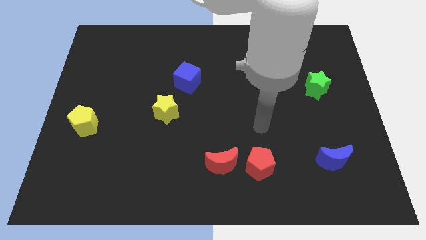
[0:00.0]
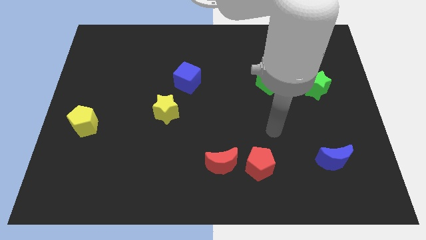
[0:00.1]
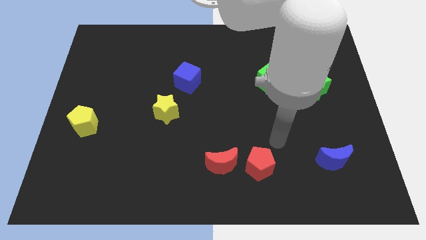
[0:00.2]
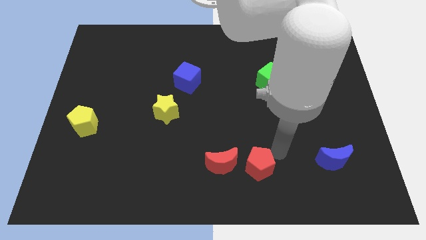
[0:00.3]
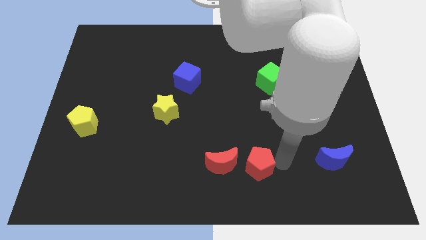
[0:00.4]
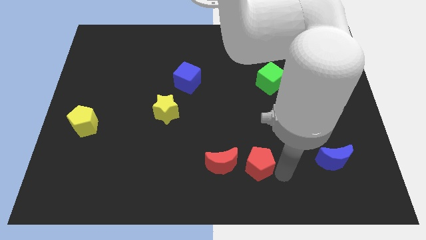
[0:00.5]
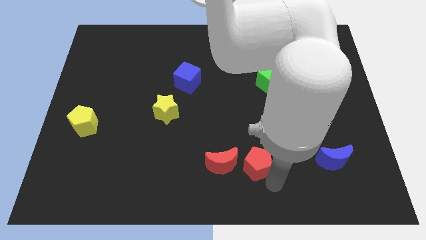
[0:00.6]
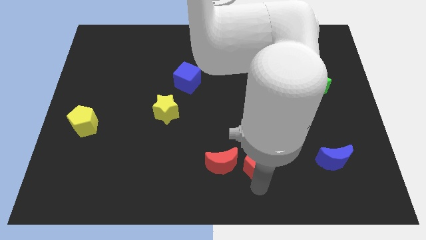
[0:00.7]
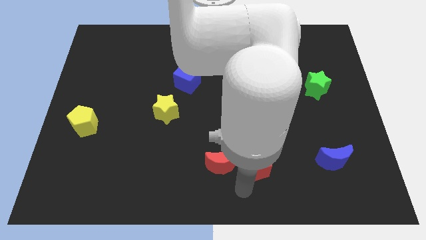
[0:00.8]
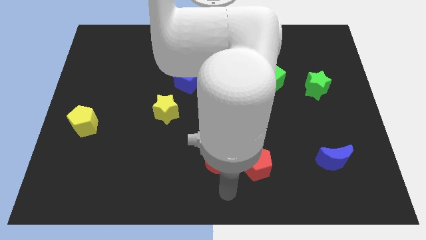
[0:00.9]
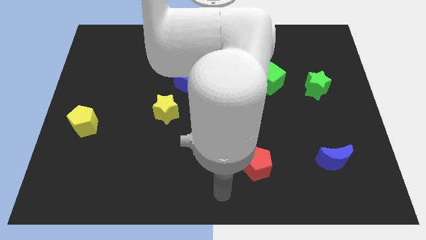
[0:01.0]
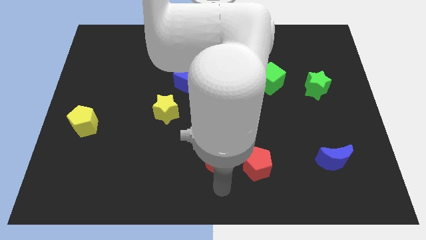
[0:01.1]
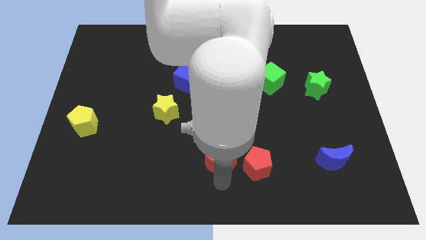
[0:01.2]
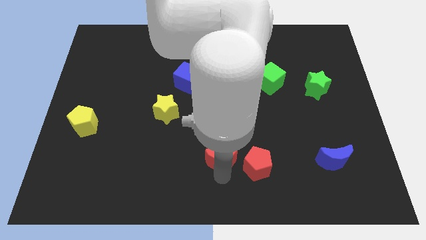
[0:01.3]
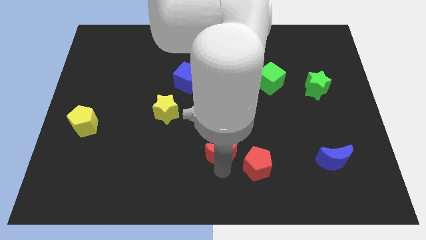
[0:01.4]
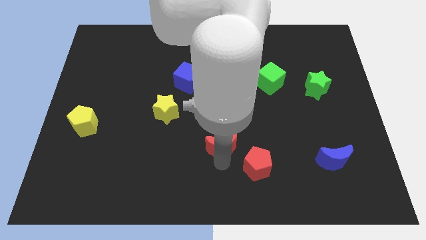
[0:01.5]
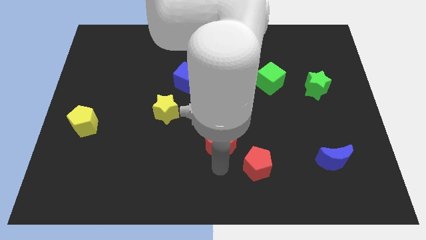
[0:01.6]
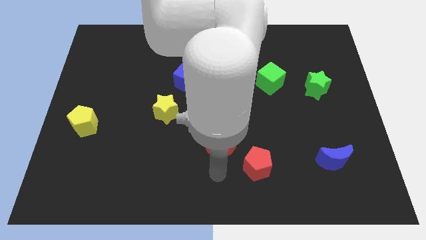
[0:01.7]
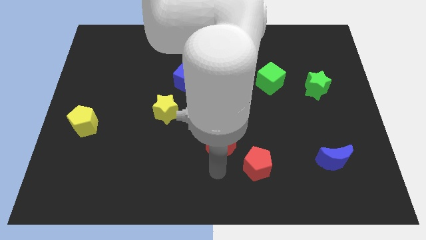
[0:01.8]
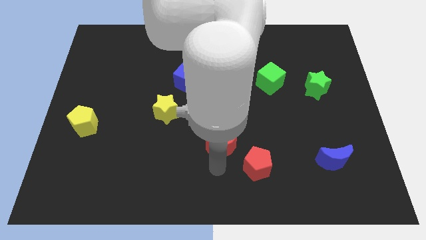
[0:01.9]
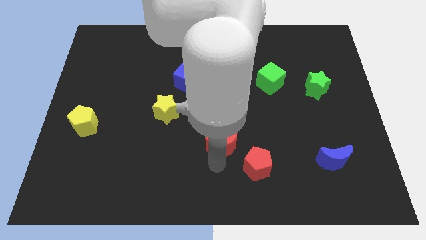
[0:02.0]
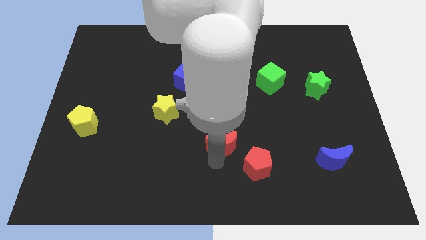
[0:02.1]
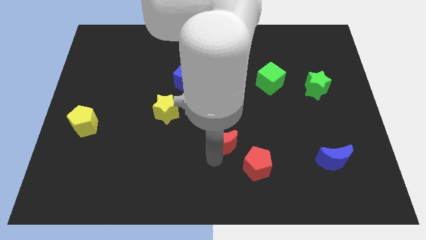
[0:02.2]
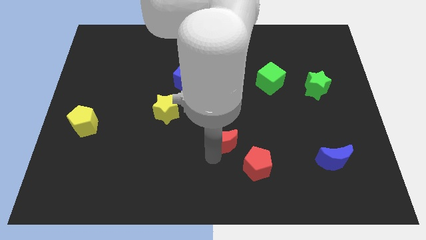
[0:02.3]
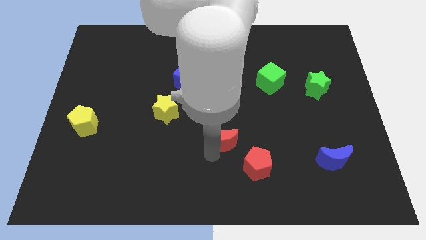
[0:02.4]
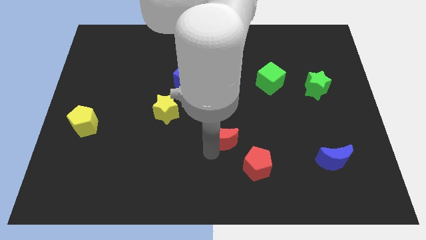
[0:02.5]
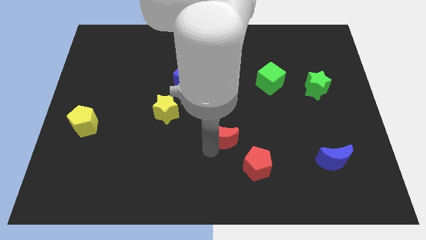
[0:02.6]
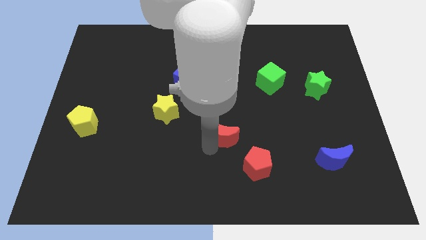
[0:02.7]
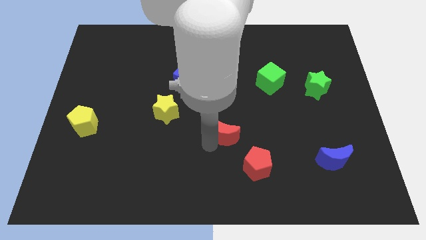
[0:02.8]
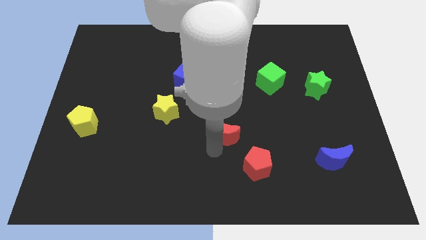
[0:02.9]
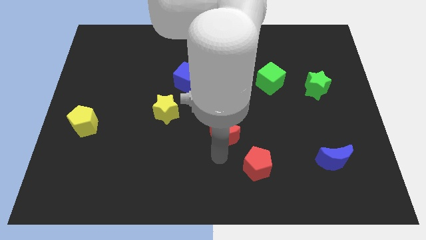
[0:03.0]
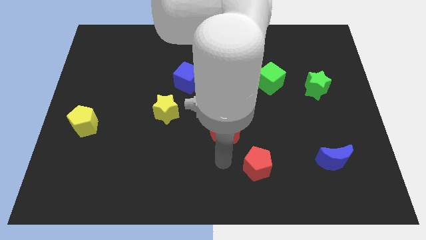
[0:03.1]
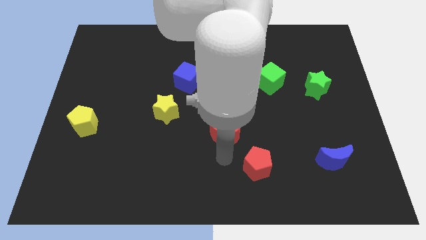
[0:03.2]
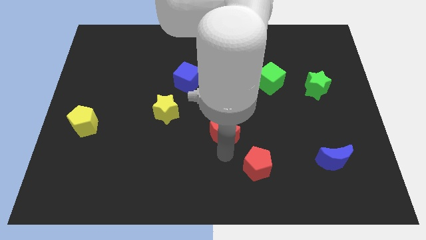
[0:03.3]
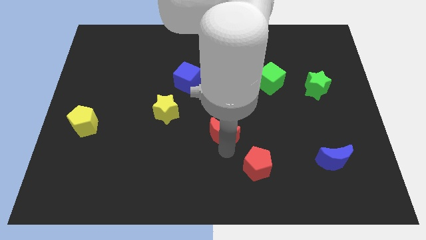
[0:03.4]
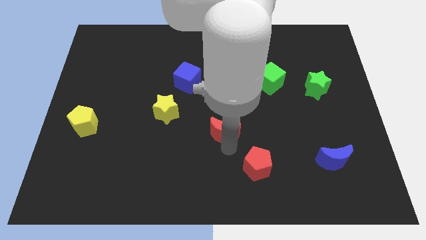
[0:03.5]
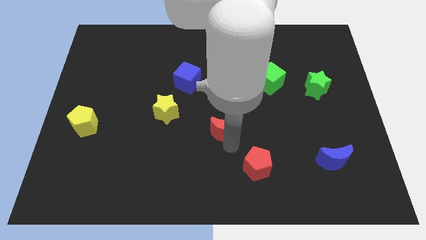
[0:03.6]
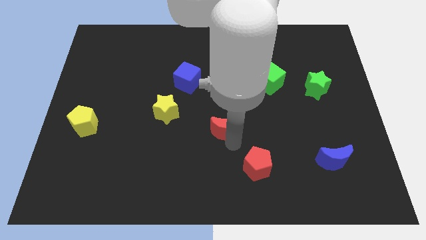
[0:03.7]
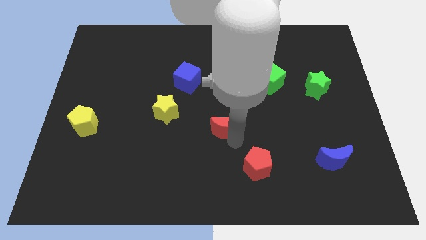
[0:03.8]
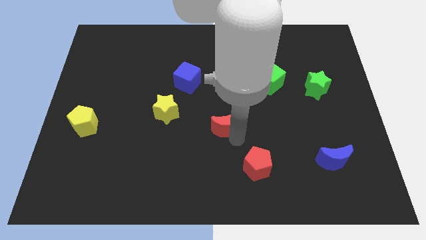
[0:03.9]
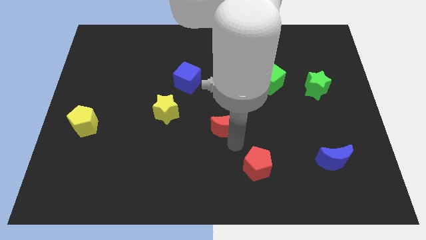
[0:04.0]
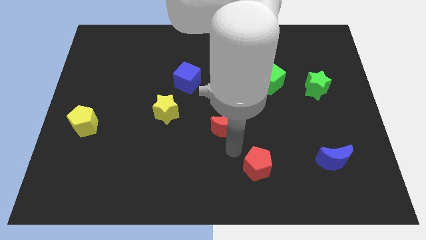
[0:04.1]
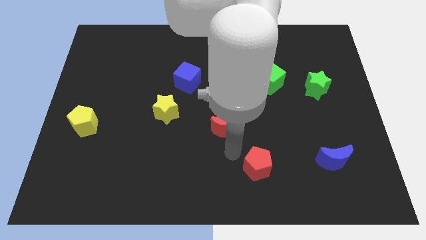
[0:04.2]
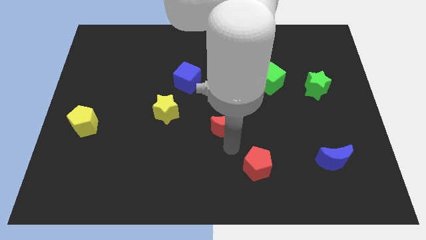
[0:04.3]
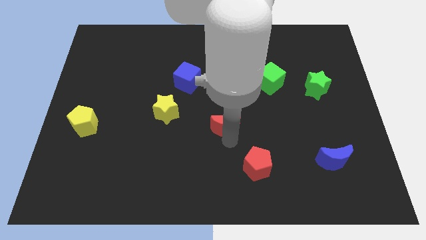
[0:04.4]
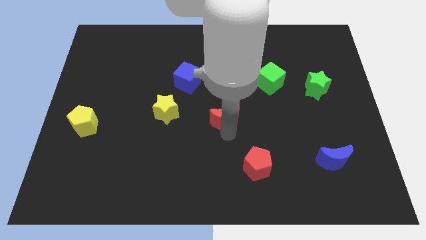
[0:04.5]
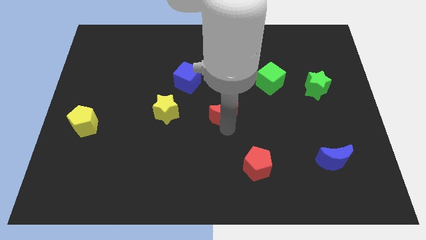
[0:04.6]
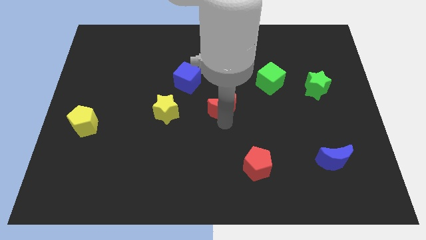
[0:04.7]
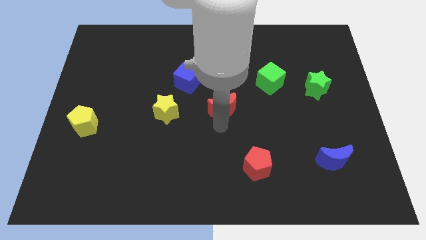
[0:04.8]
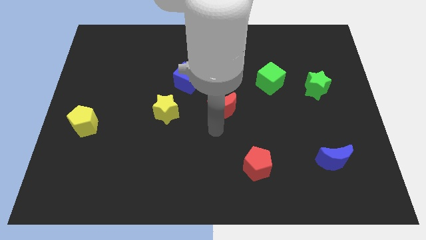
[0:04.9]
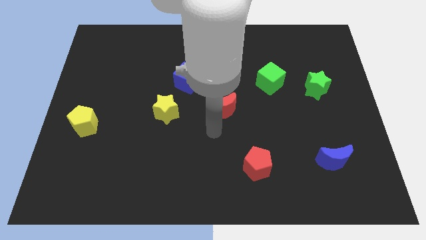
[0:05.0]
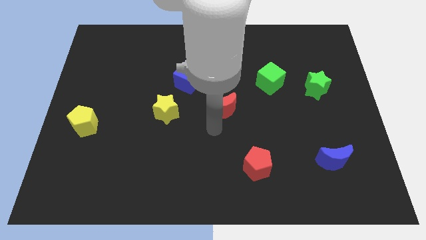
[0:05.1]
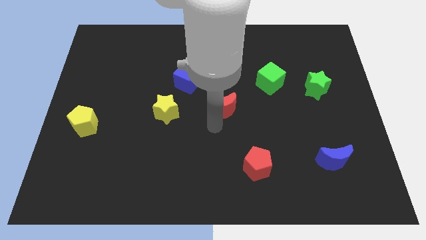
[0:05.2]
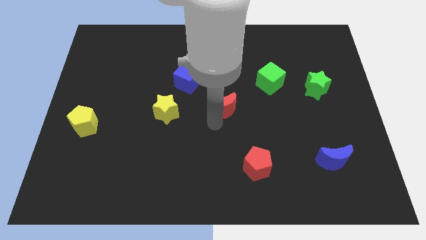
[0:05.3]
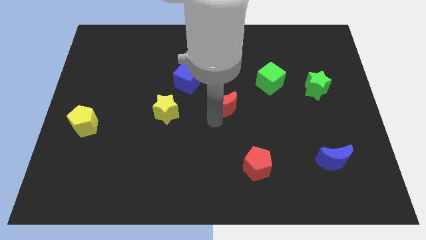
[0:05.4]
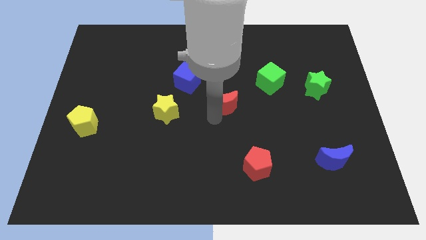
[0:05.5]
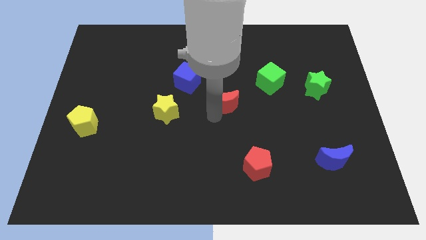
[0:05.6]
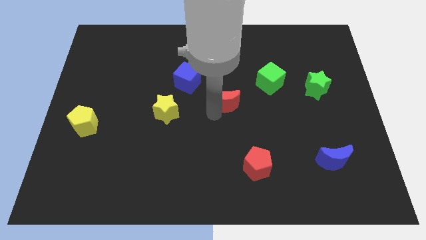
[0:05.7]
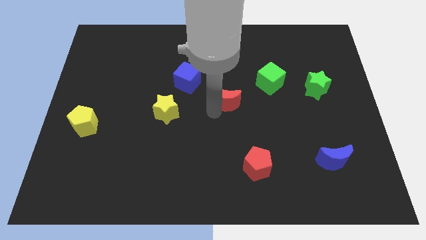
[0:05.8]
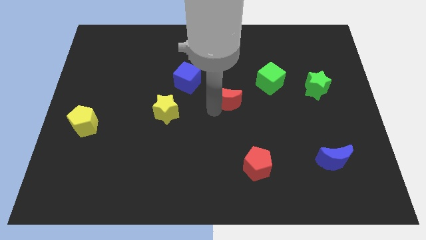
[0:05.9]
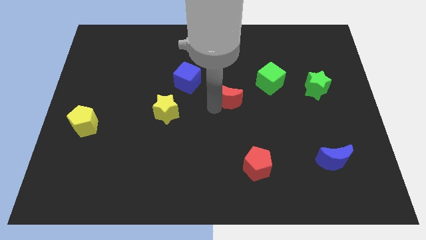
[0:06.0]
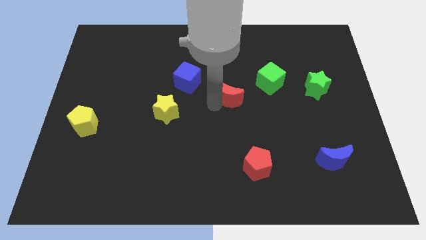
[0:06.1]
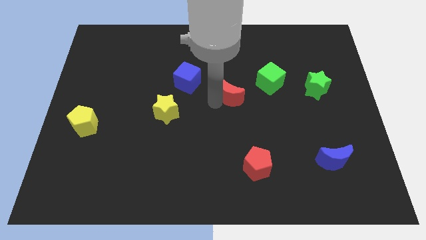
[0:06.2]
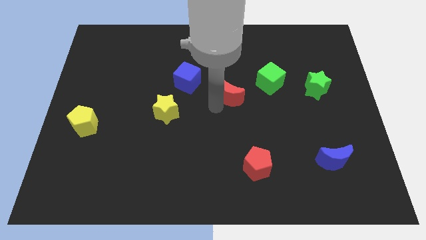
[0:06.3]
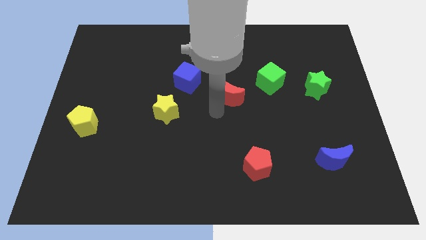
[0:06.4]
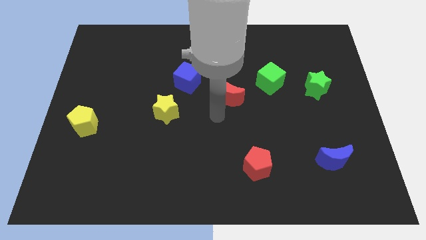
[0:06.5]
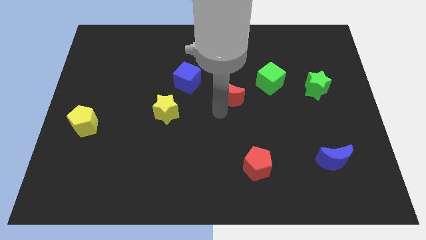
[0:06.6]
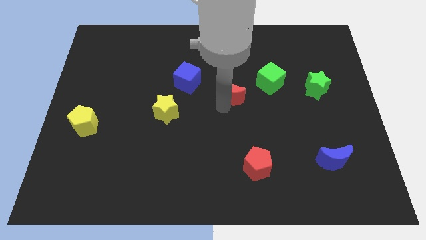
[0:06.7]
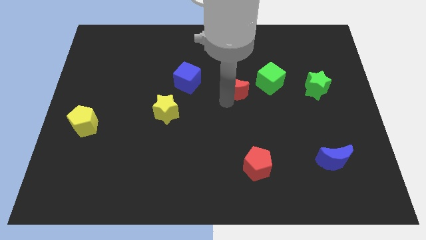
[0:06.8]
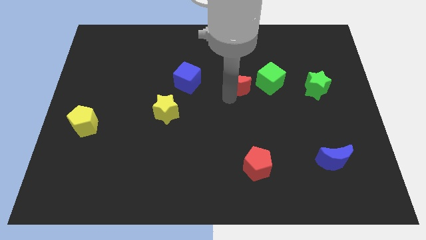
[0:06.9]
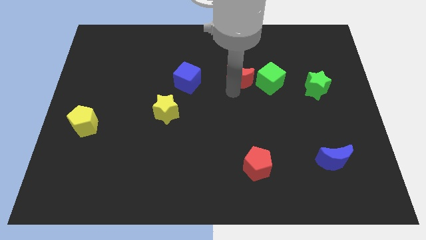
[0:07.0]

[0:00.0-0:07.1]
move the red moon diagonally up and to the left of the green cube
